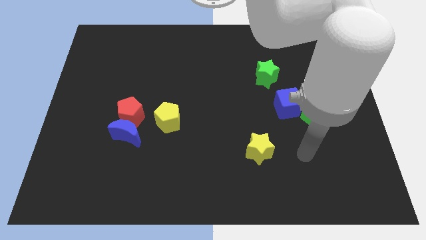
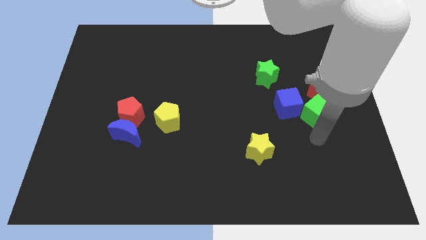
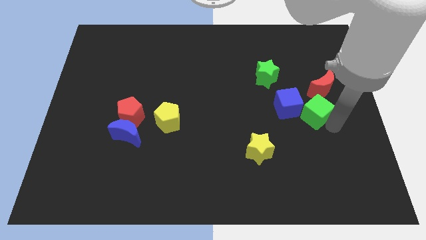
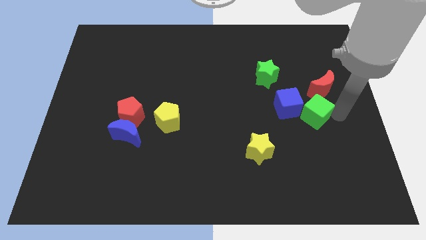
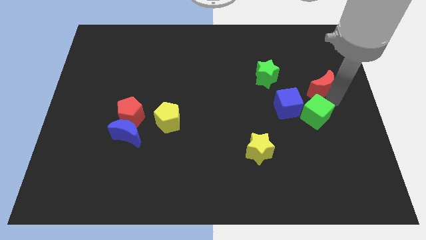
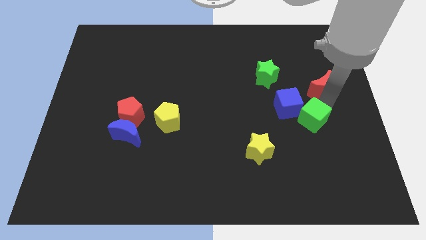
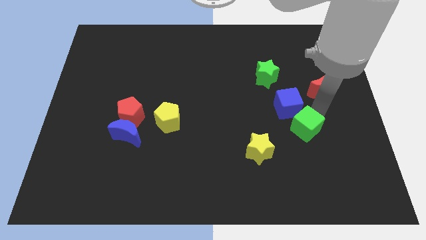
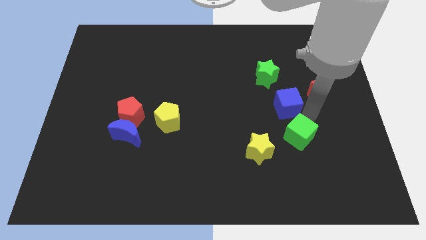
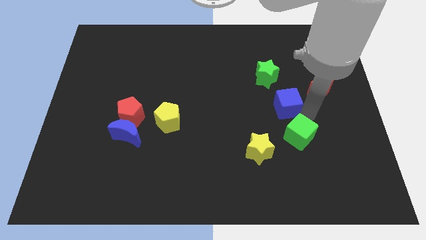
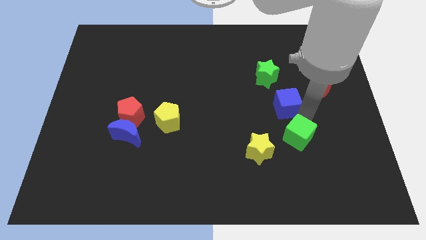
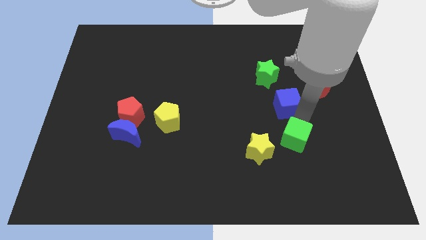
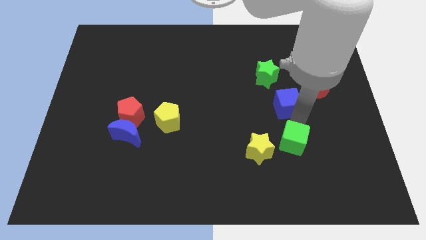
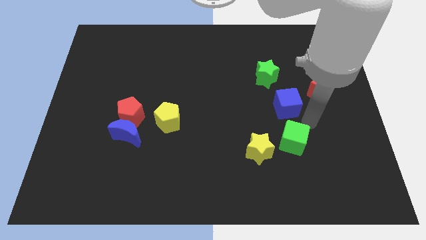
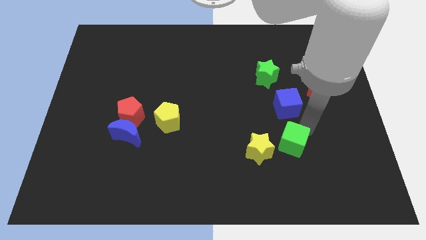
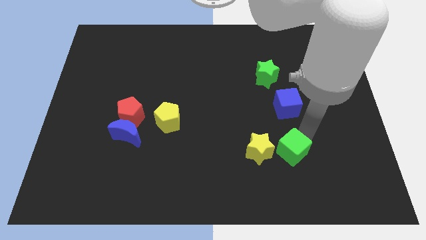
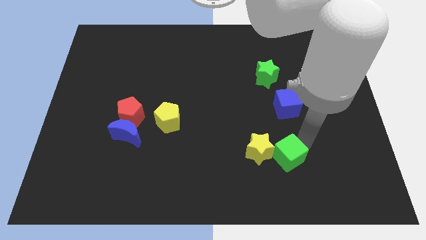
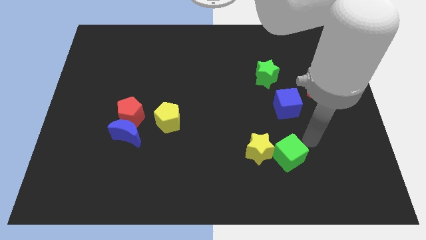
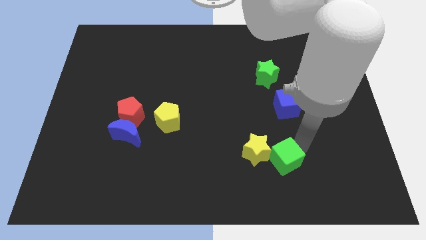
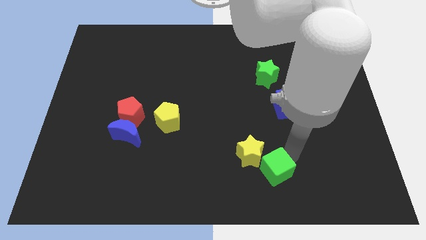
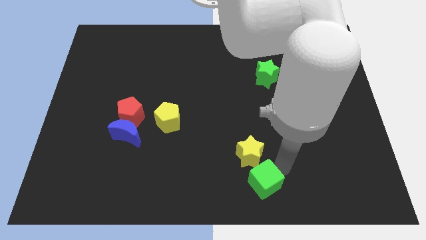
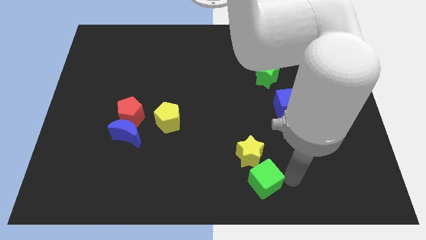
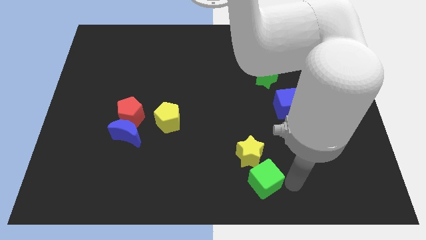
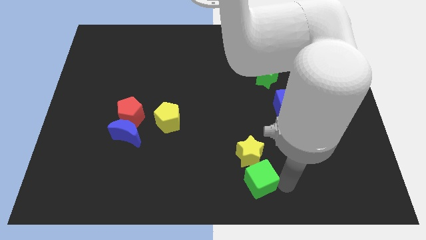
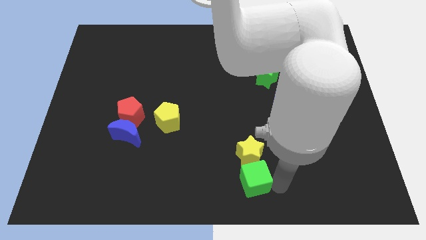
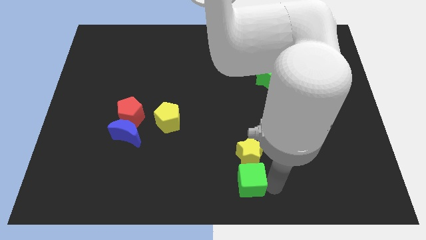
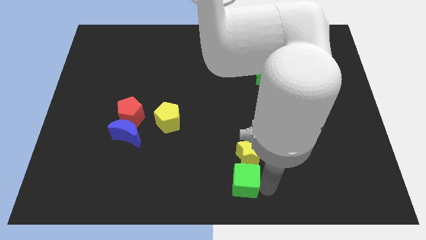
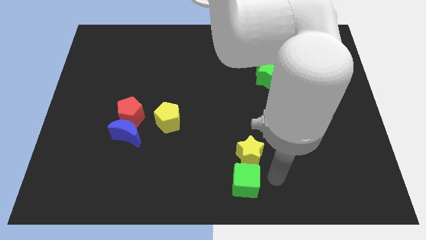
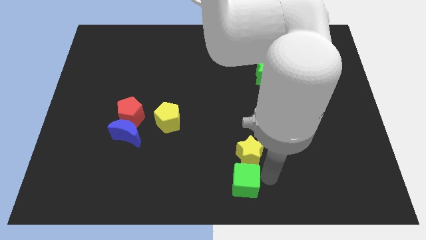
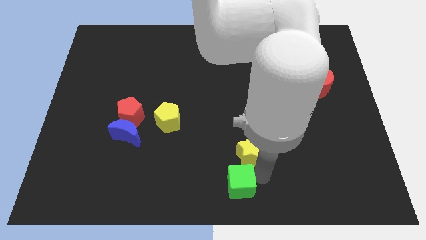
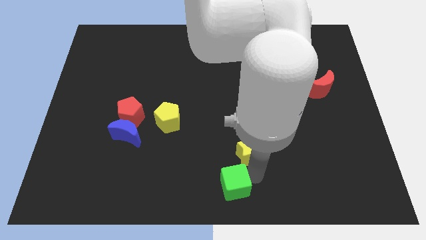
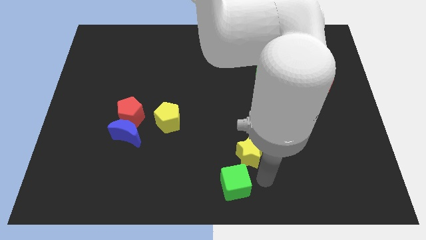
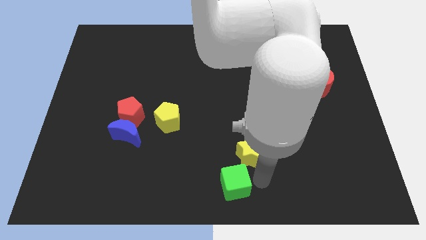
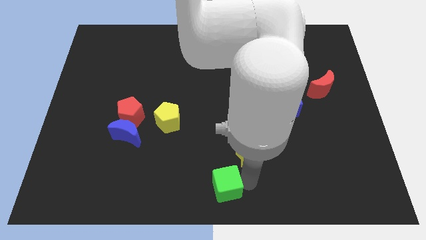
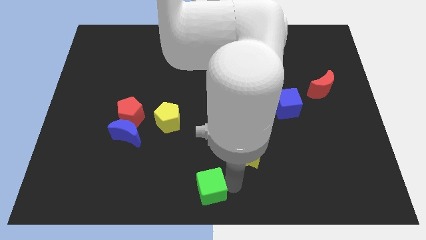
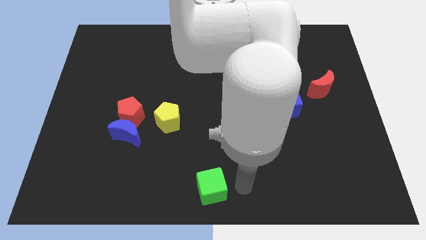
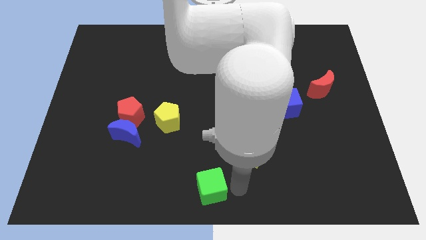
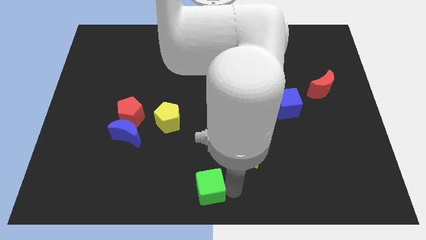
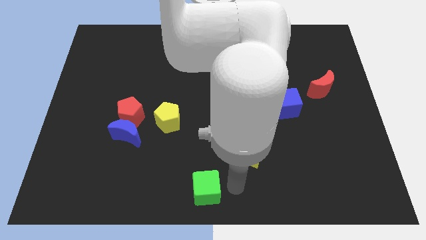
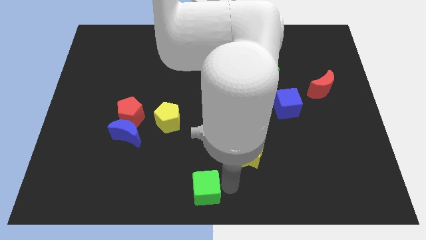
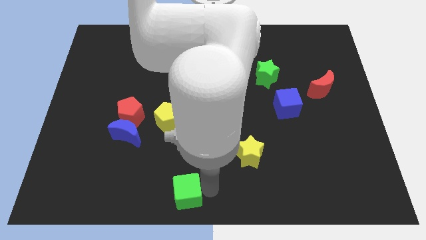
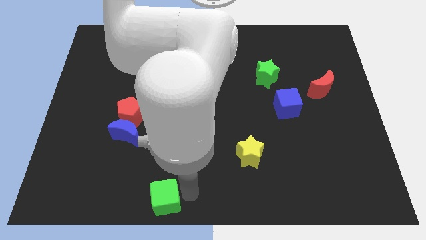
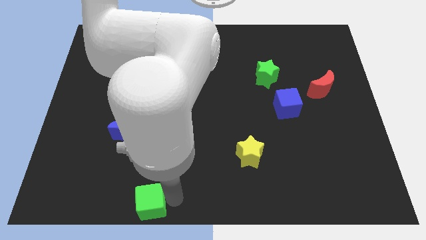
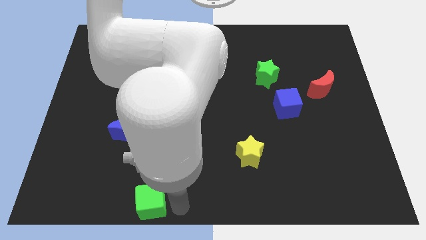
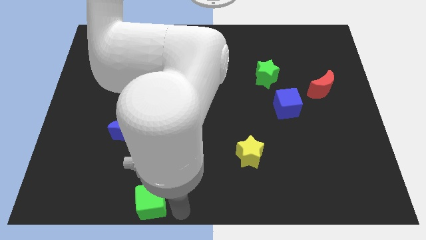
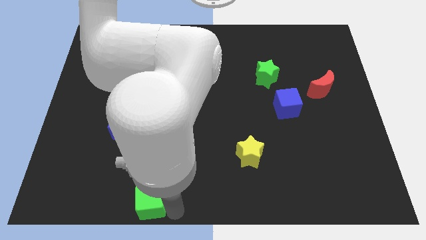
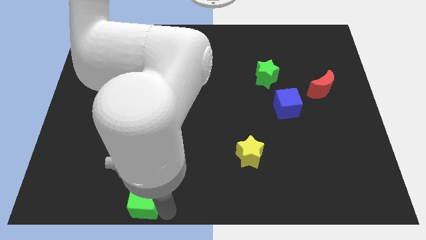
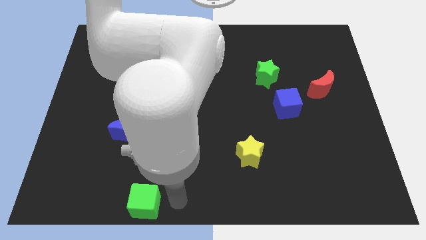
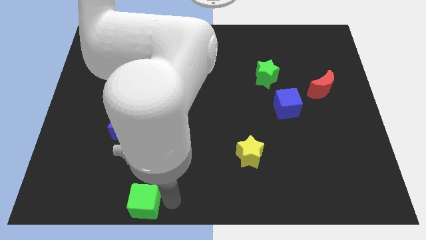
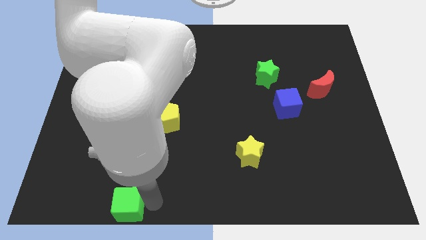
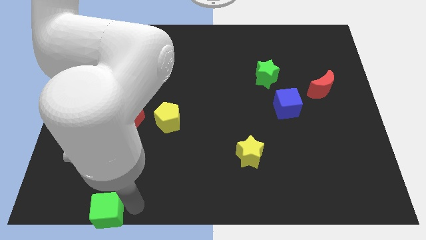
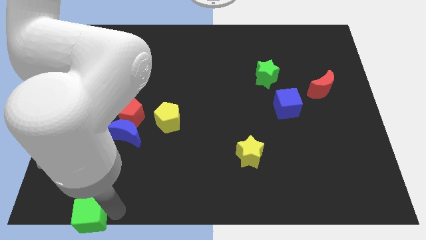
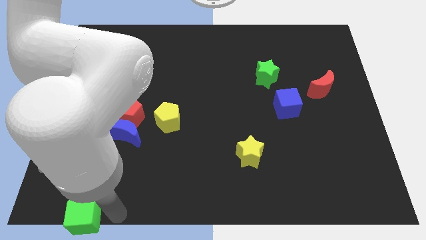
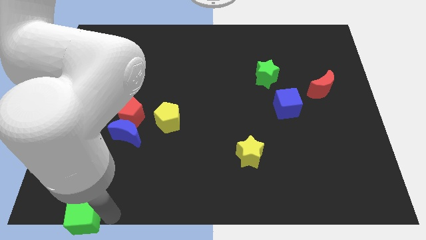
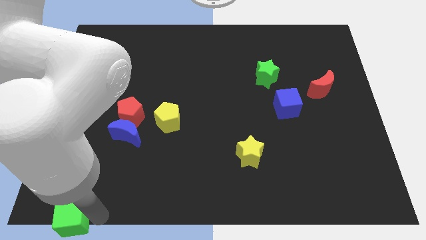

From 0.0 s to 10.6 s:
push the green cube to the bottom left of the board

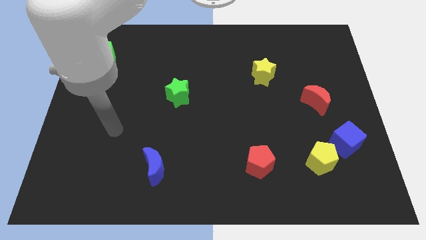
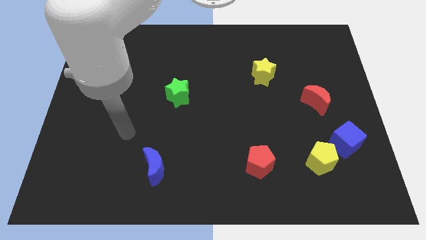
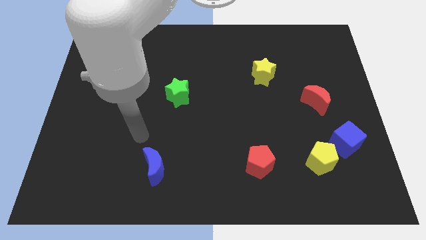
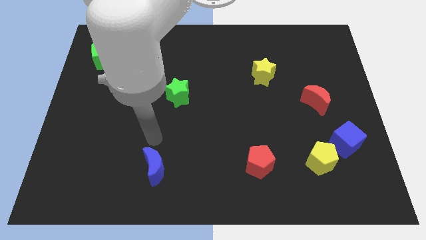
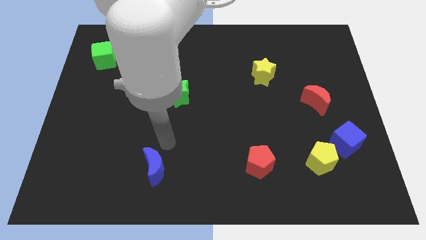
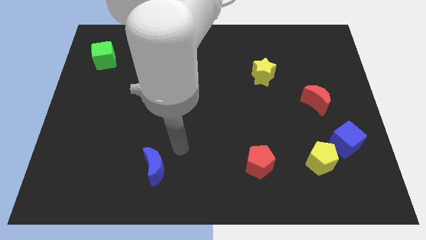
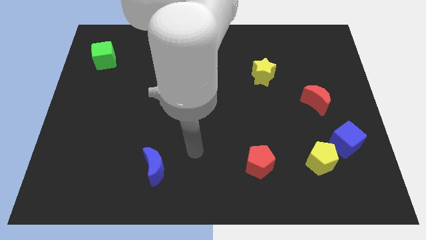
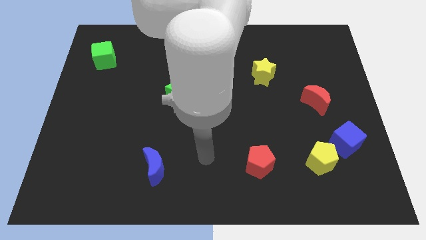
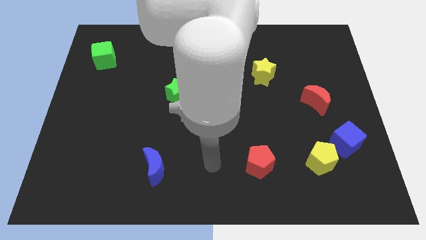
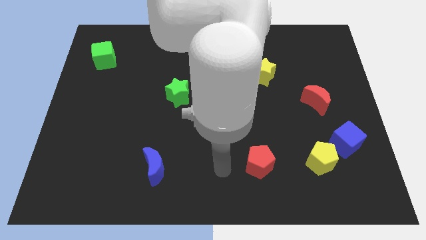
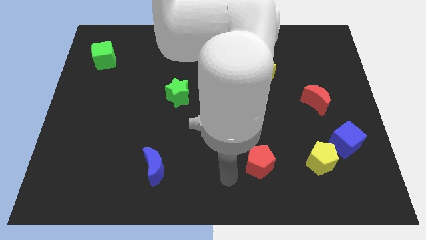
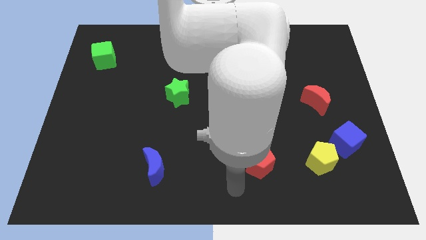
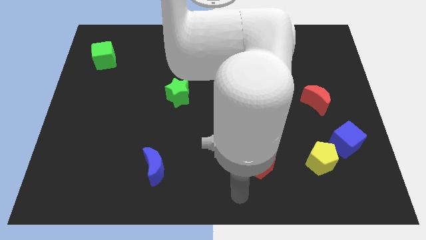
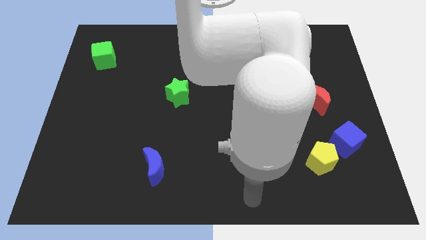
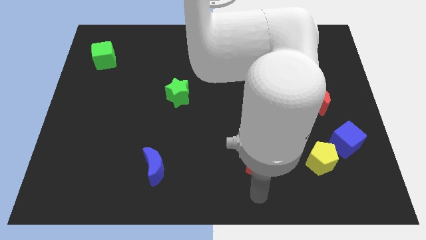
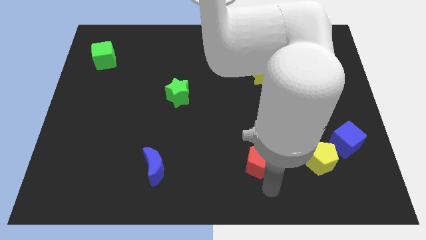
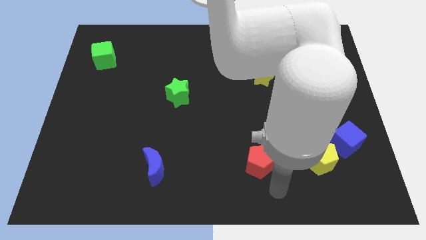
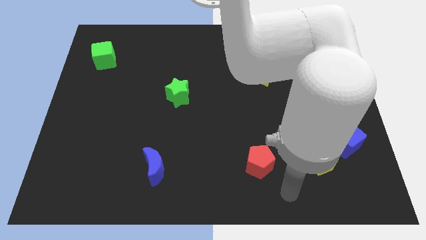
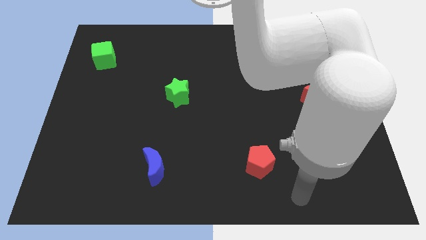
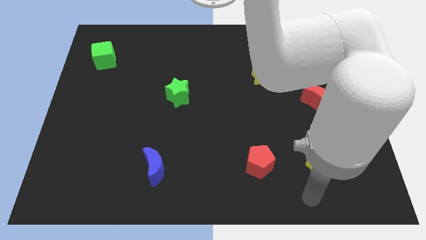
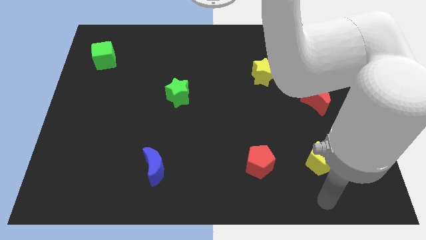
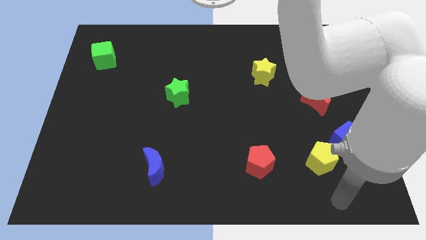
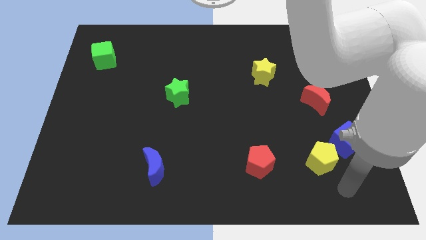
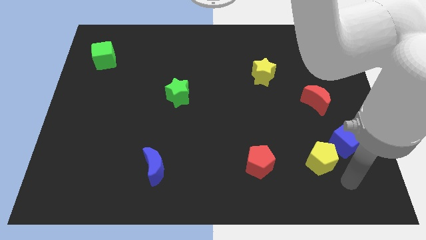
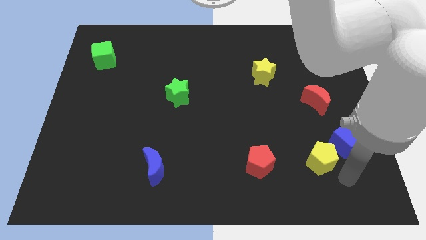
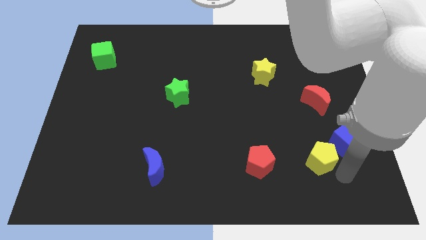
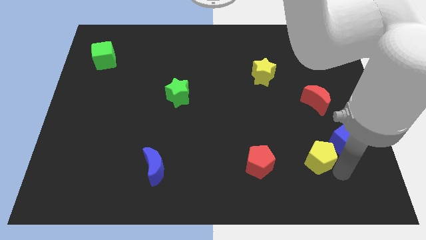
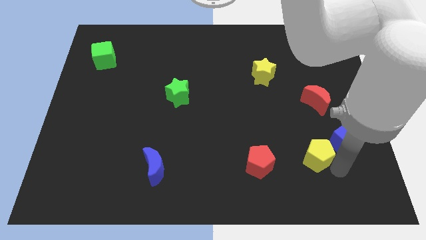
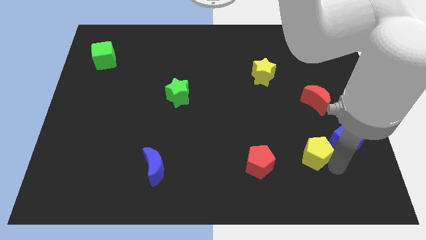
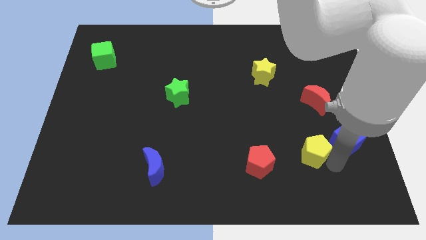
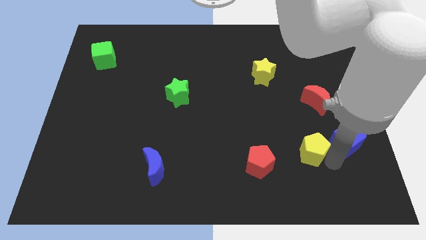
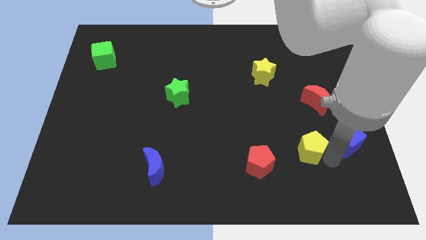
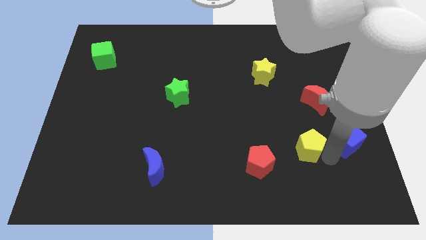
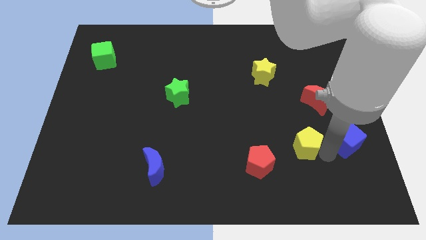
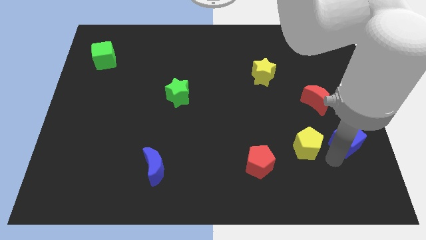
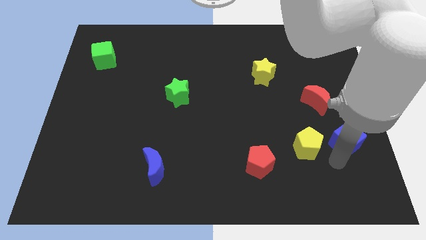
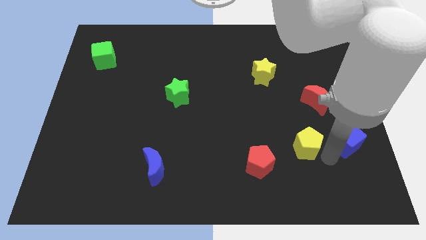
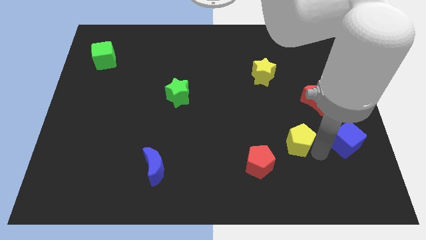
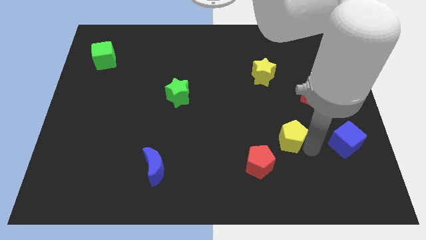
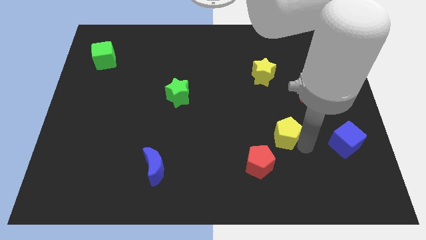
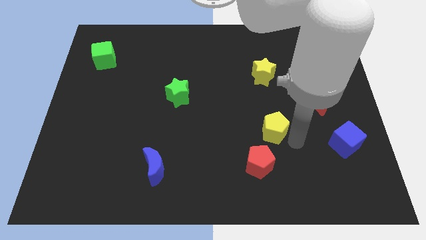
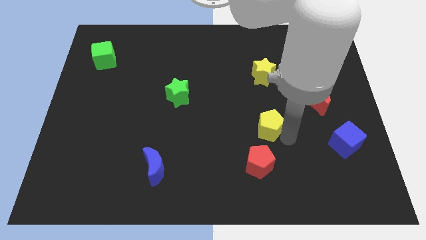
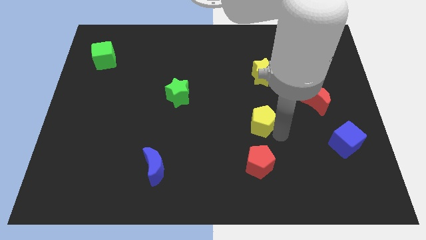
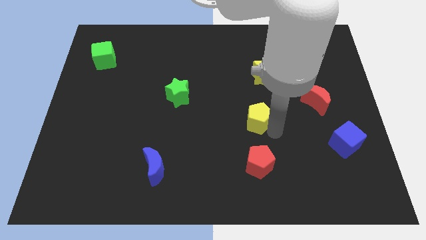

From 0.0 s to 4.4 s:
push the yellow pentagon to the middle
